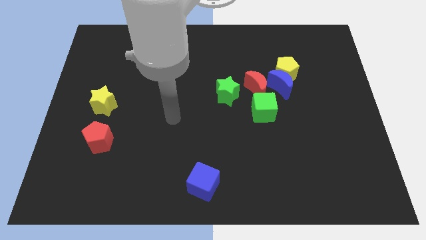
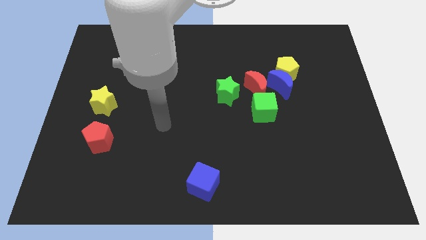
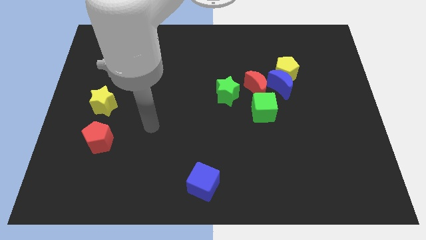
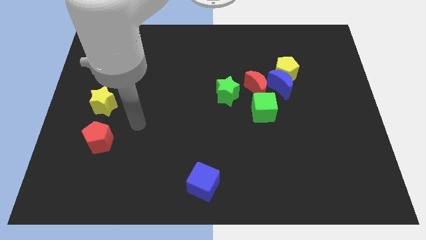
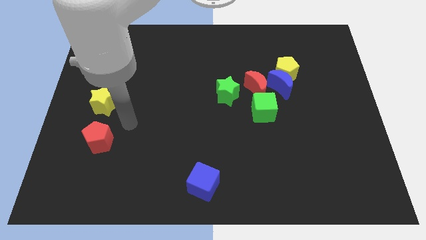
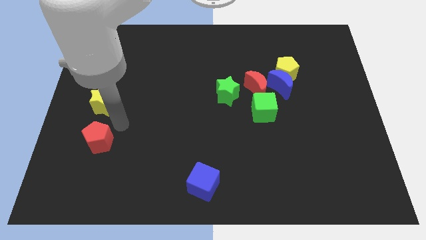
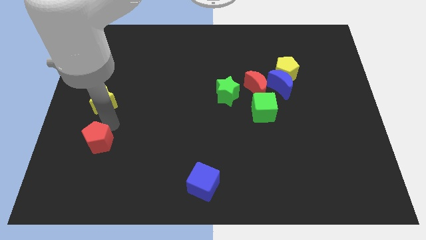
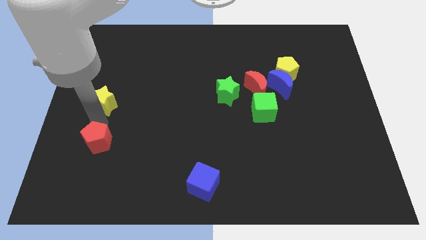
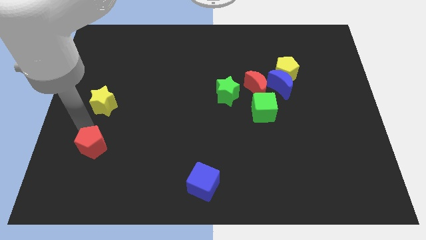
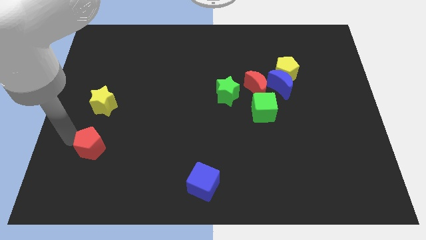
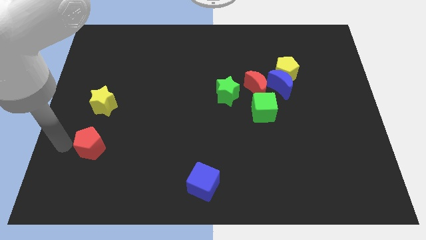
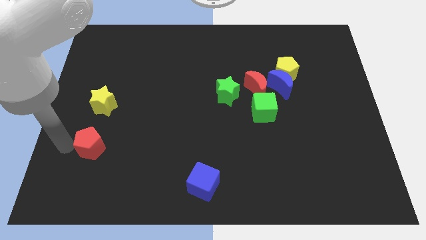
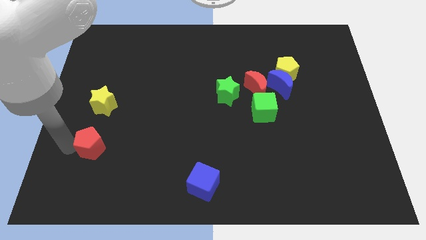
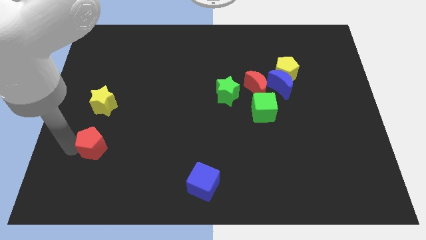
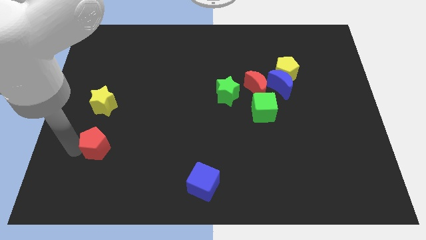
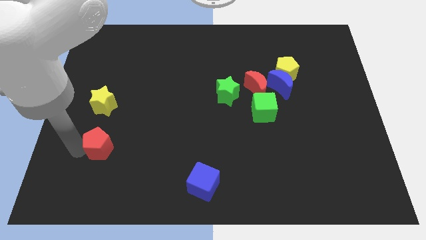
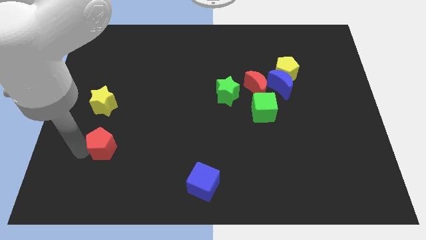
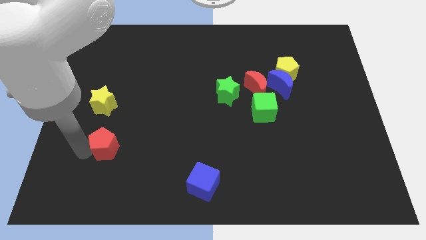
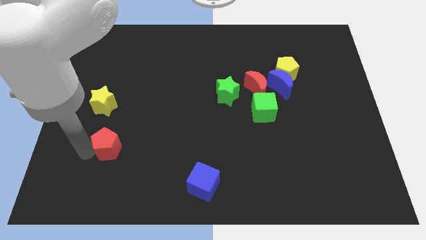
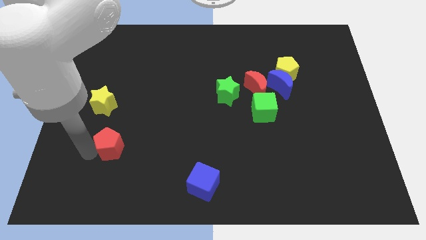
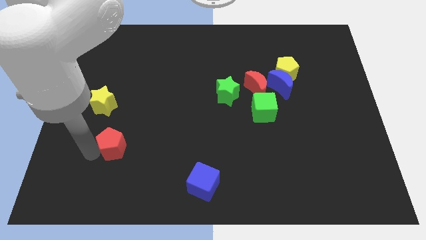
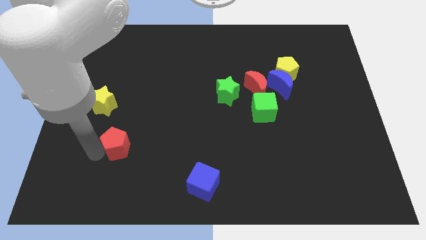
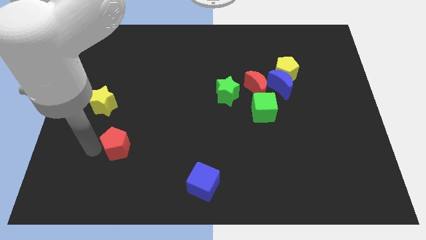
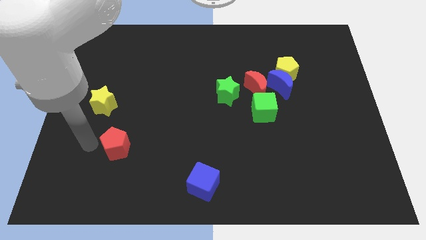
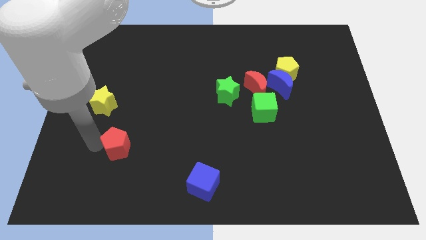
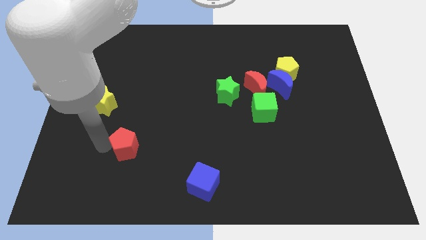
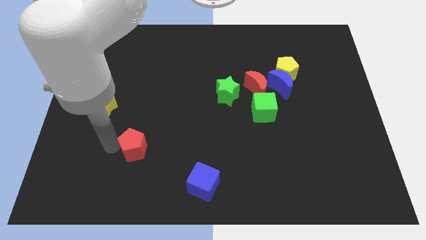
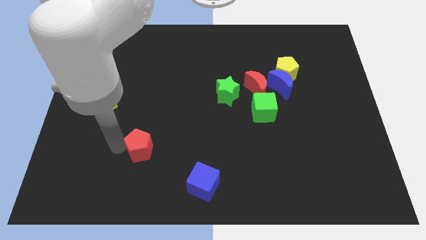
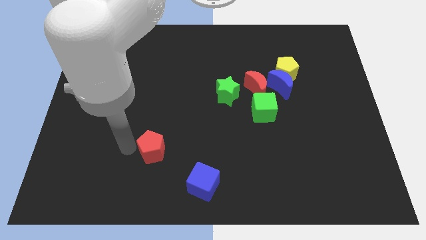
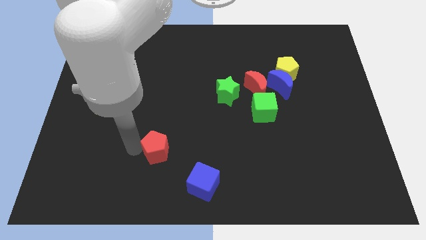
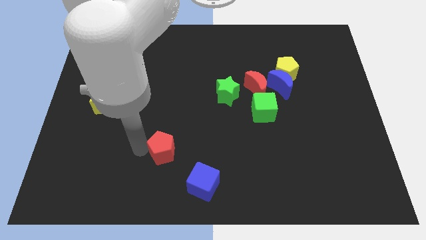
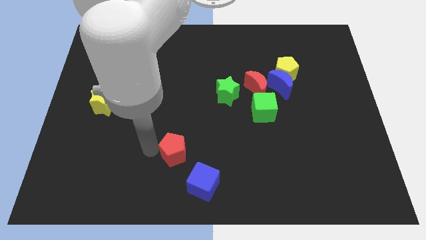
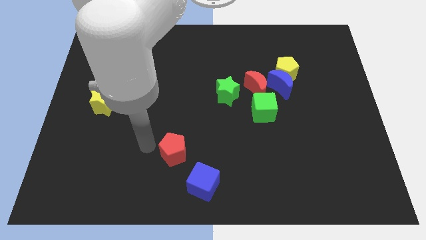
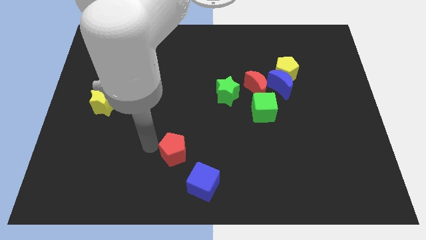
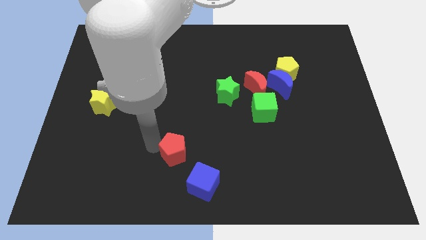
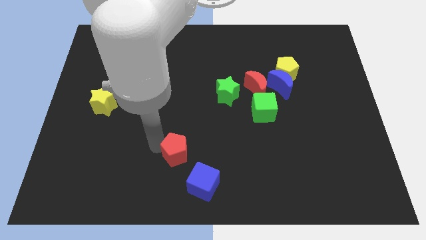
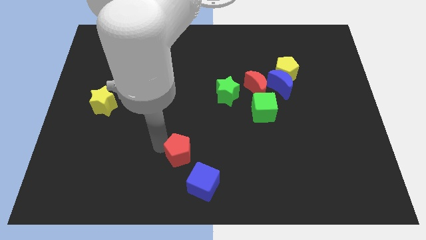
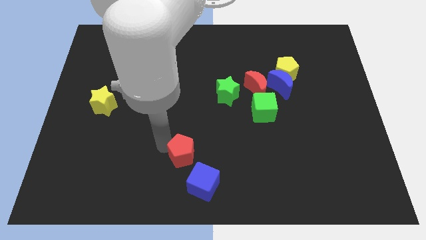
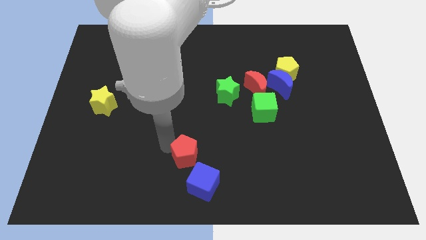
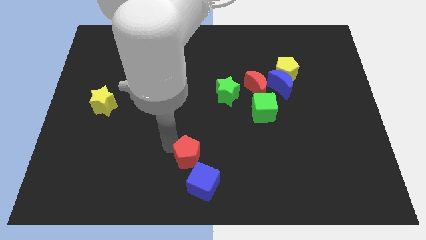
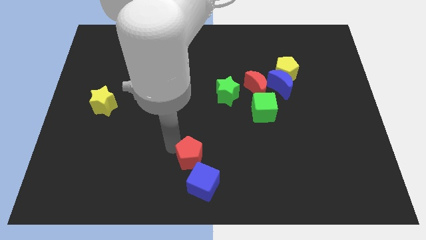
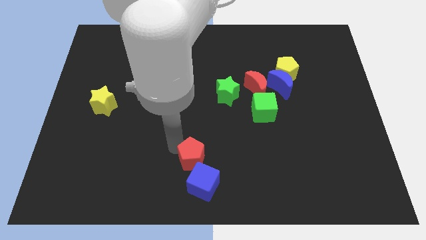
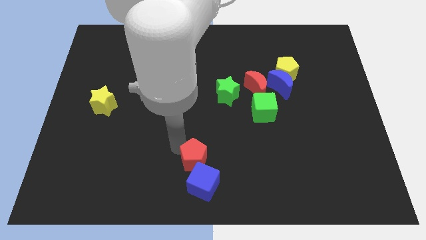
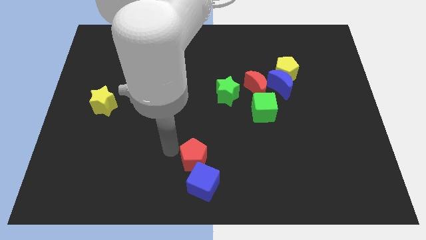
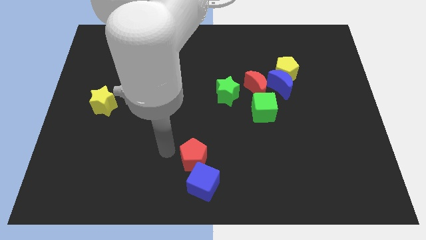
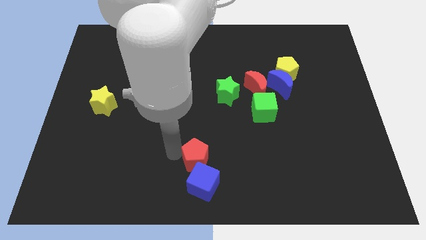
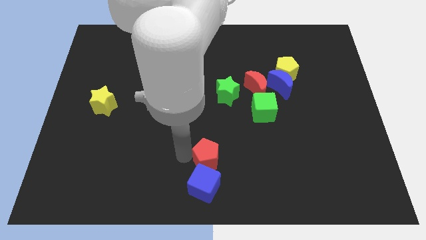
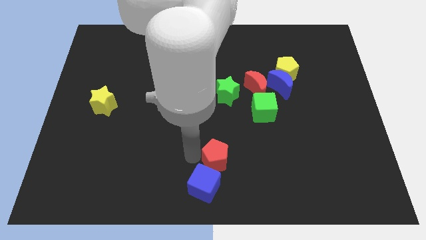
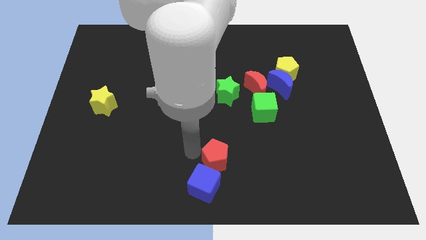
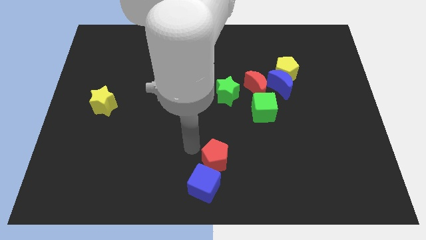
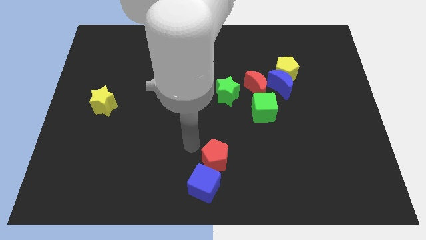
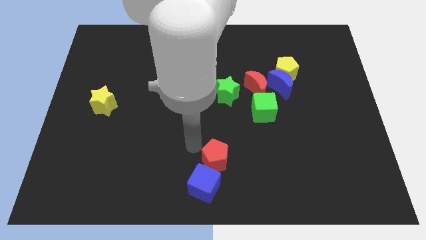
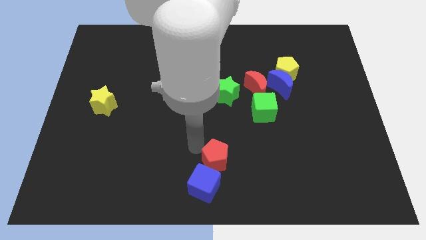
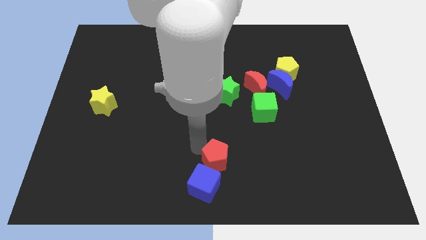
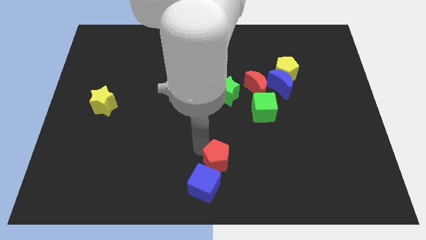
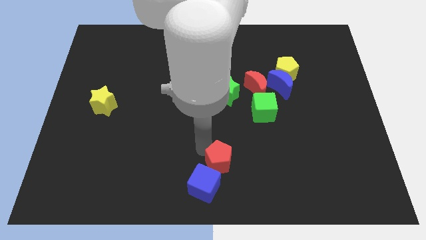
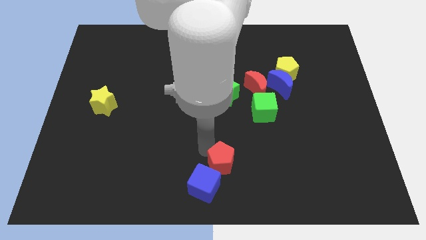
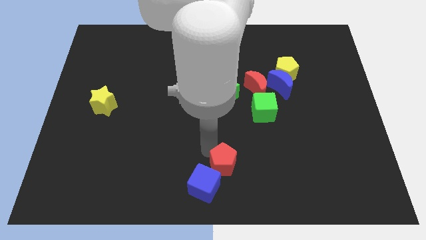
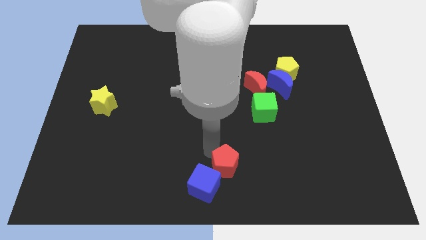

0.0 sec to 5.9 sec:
slide the red pentagon just right of the blue cube

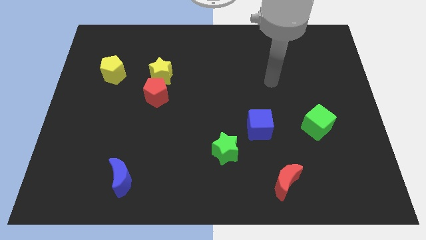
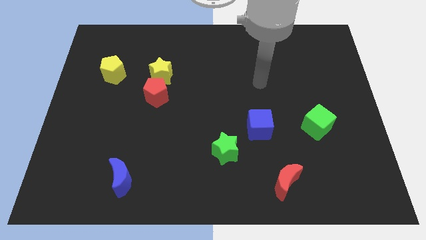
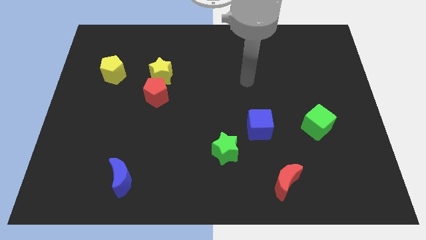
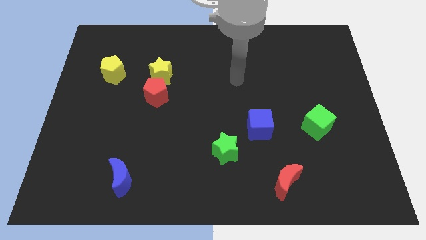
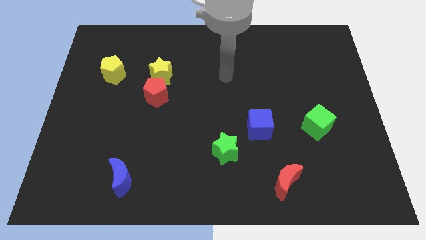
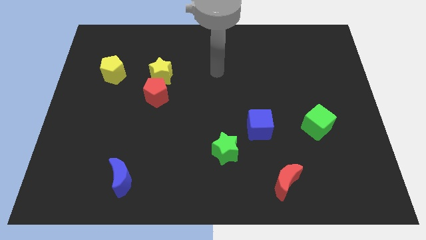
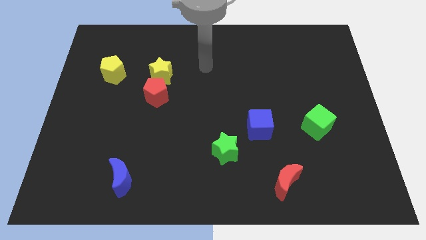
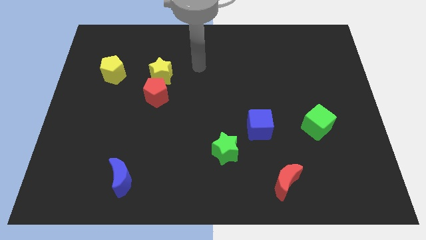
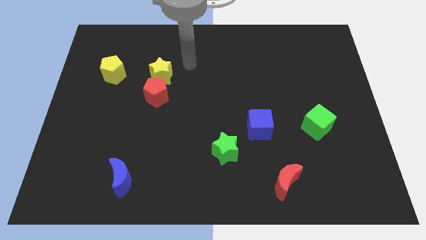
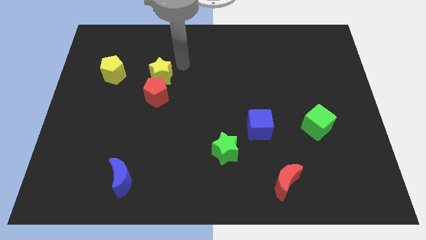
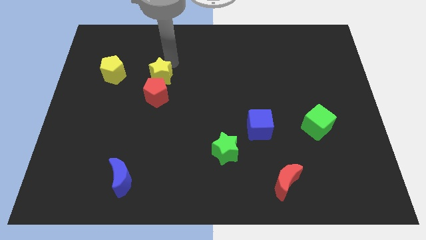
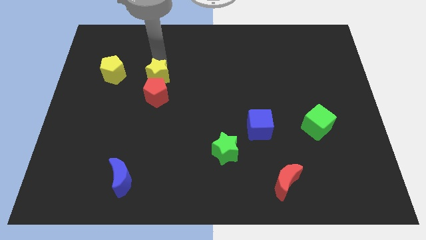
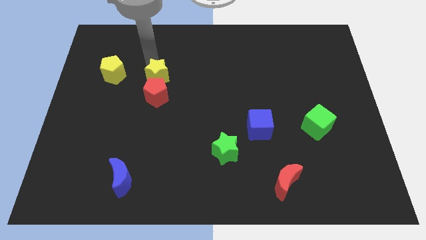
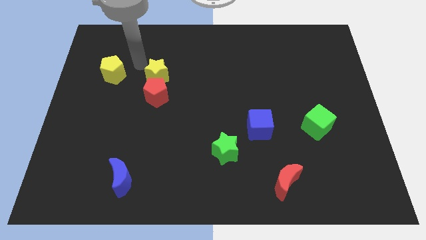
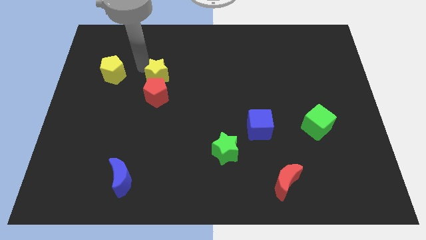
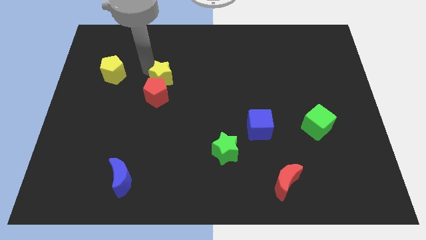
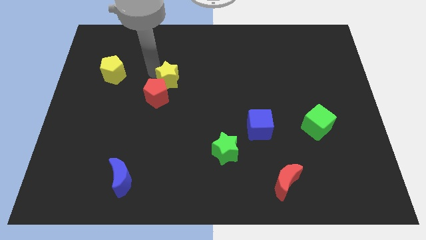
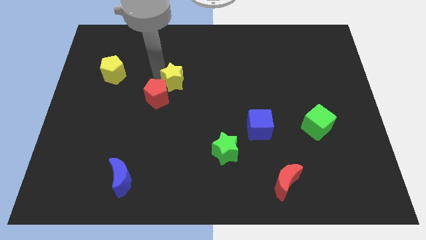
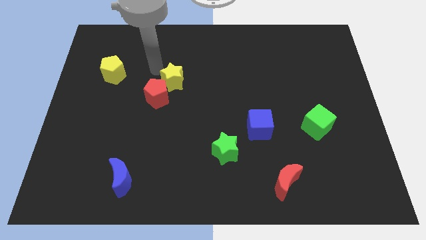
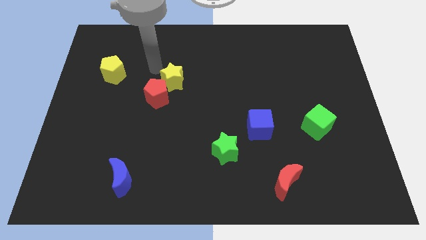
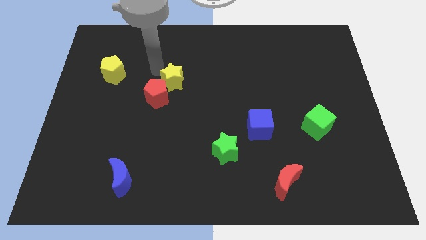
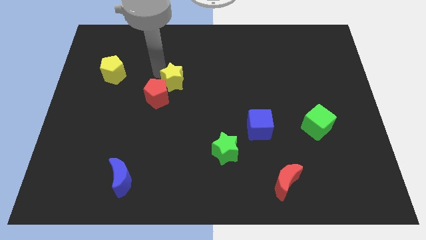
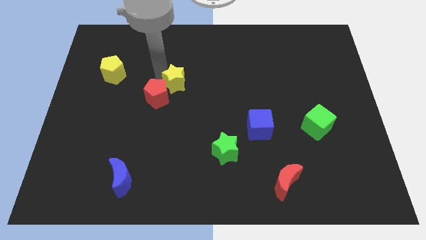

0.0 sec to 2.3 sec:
slide the yellow star just right of the red pentagon
